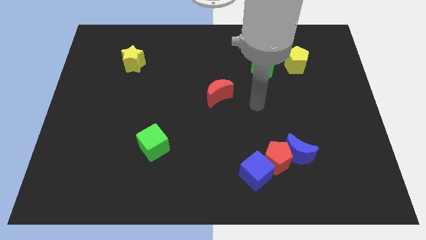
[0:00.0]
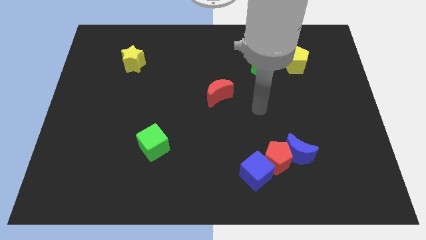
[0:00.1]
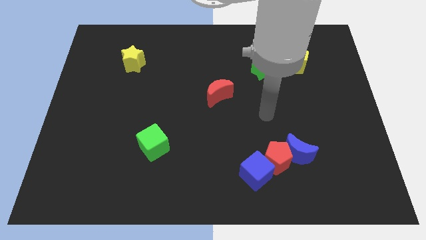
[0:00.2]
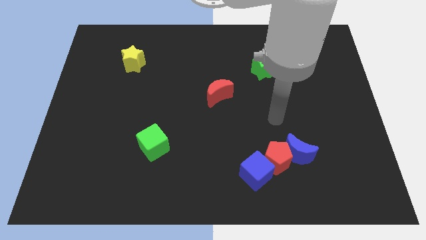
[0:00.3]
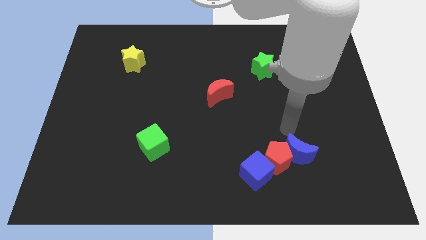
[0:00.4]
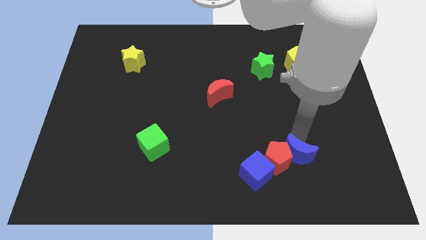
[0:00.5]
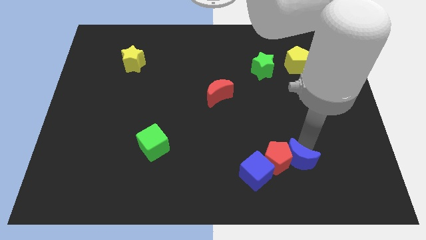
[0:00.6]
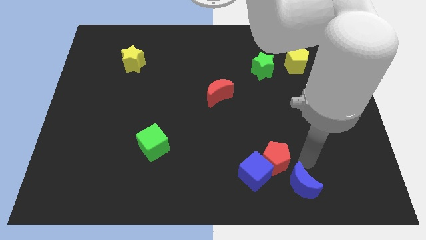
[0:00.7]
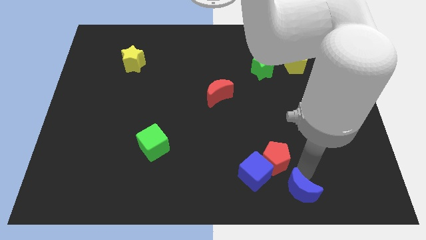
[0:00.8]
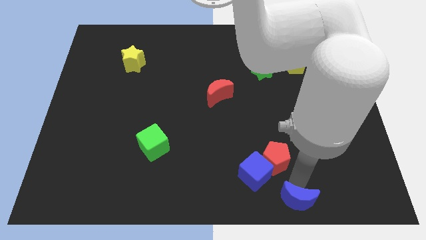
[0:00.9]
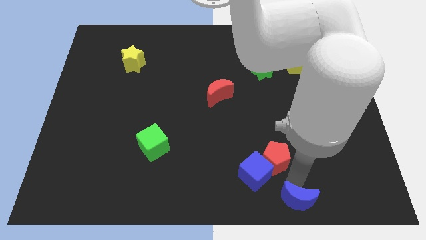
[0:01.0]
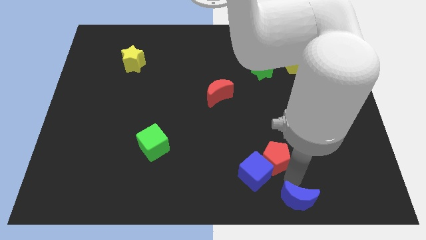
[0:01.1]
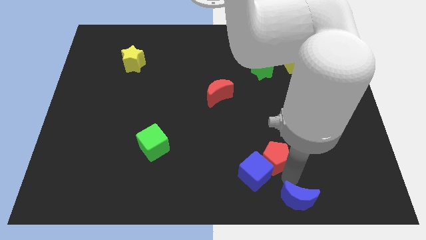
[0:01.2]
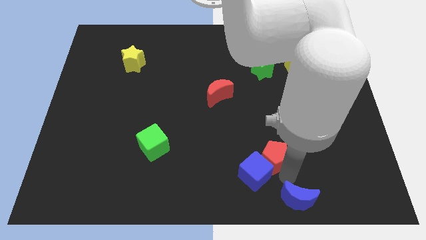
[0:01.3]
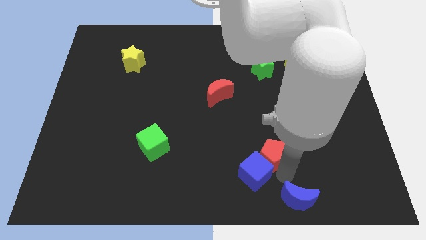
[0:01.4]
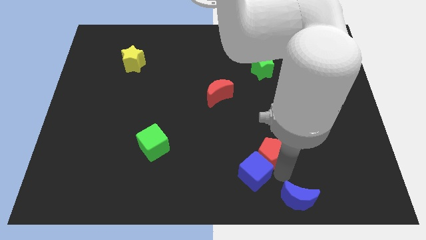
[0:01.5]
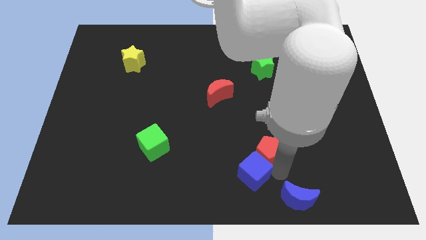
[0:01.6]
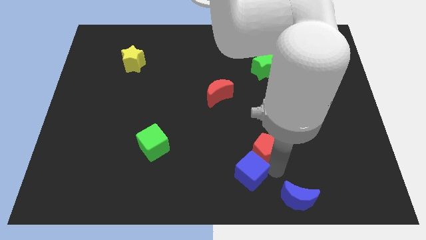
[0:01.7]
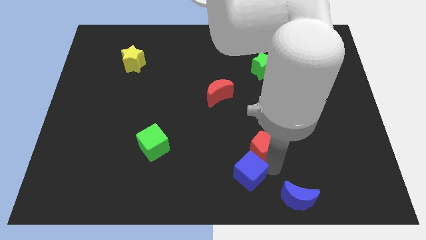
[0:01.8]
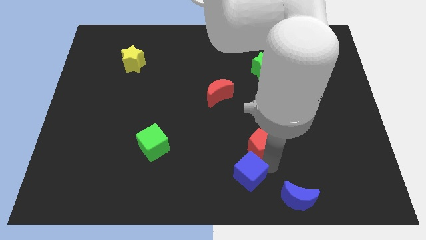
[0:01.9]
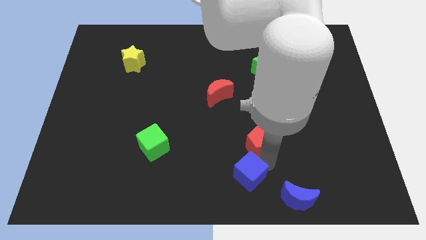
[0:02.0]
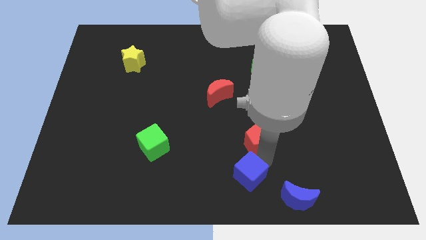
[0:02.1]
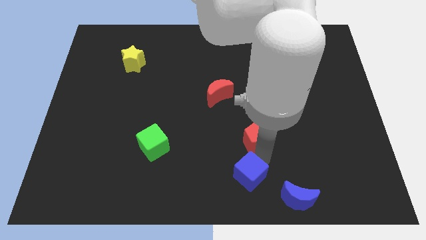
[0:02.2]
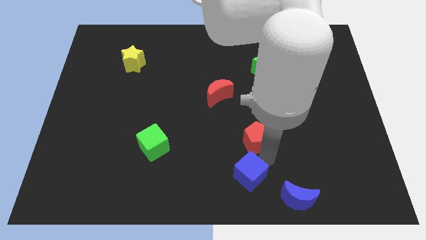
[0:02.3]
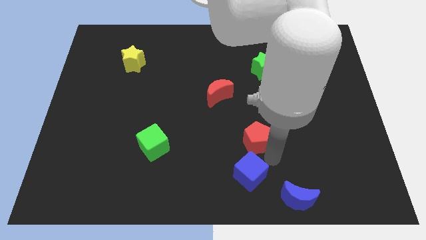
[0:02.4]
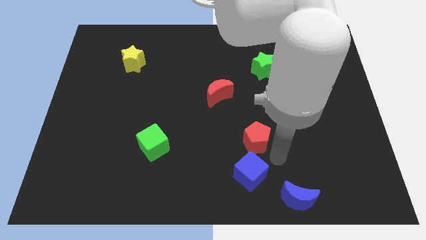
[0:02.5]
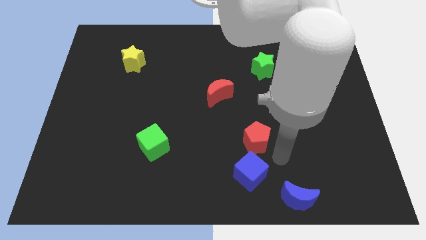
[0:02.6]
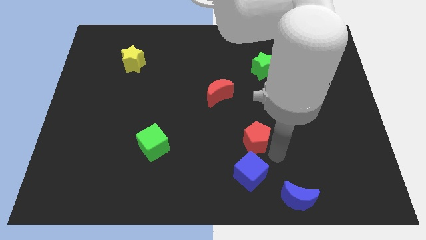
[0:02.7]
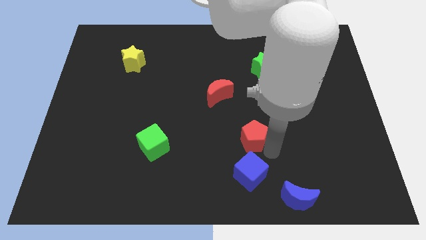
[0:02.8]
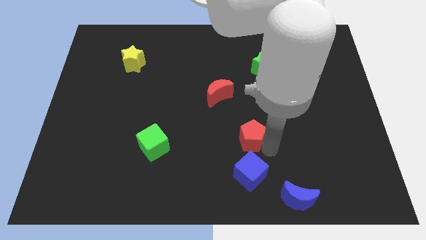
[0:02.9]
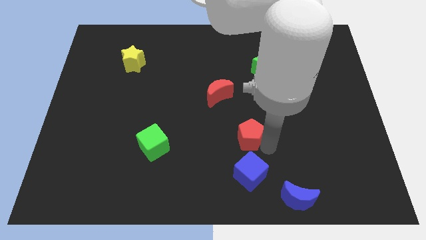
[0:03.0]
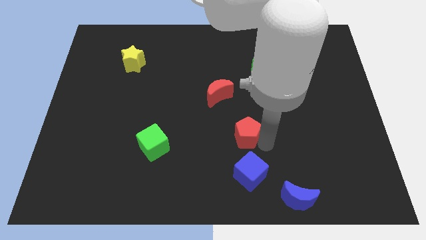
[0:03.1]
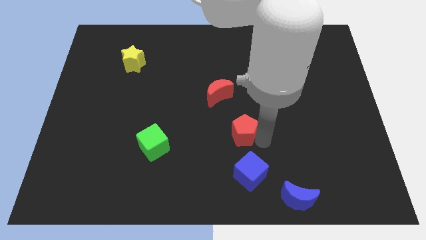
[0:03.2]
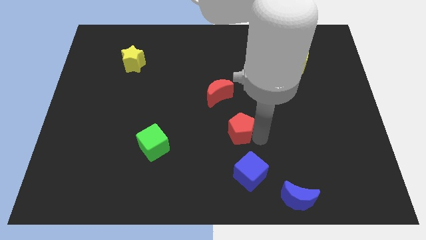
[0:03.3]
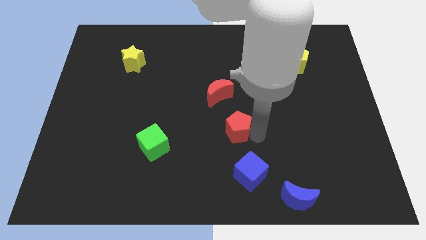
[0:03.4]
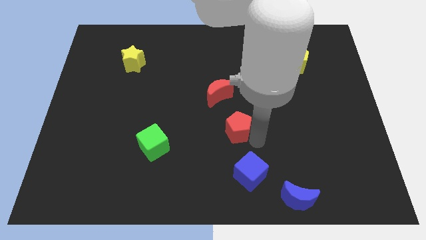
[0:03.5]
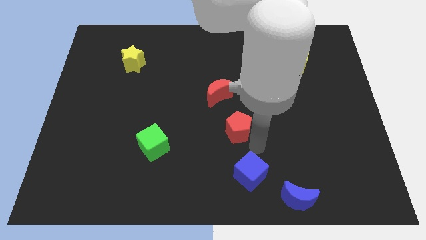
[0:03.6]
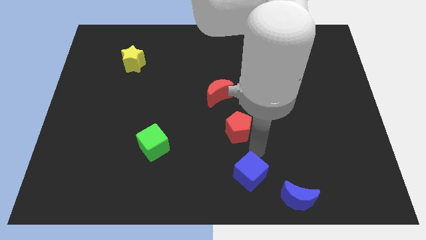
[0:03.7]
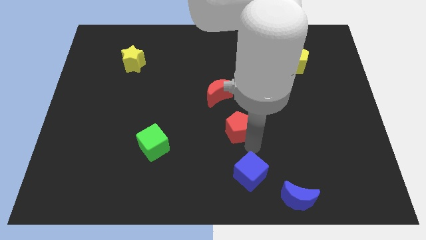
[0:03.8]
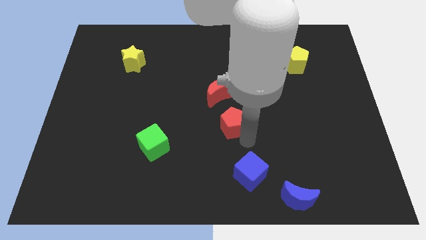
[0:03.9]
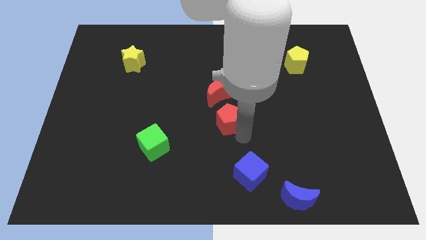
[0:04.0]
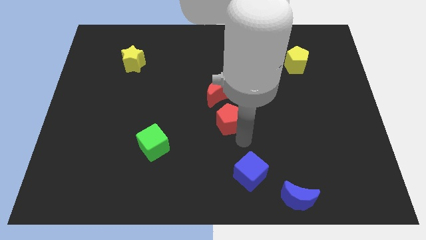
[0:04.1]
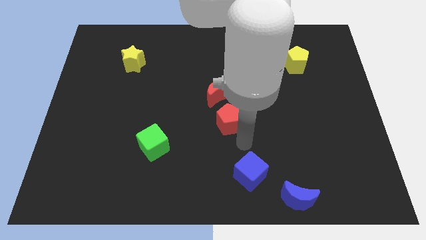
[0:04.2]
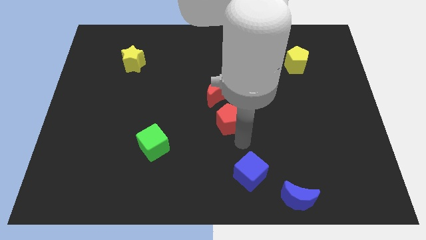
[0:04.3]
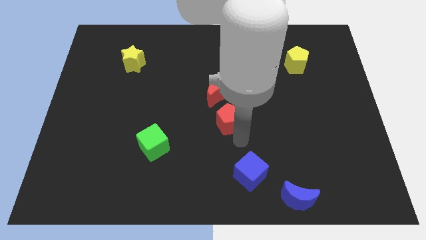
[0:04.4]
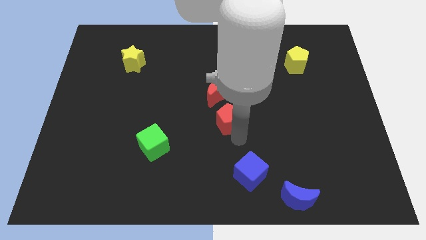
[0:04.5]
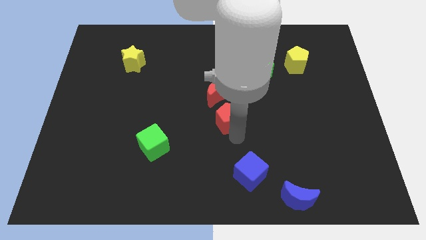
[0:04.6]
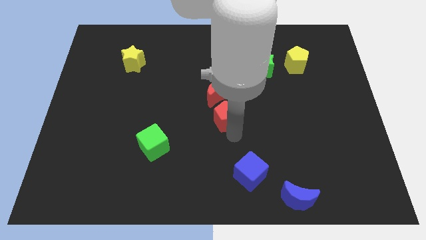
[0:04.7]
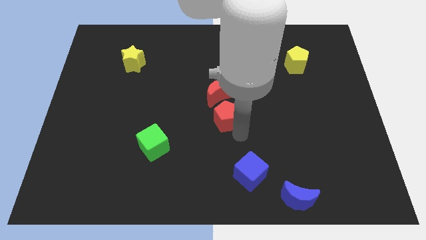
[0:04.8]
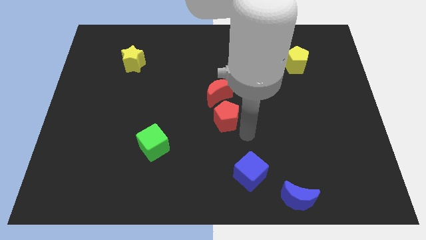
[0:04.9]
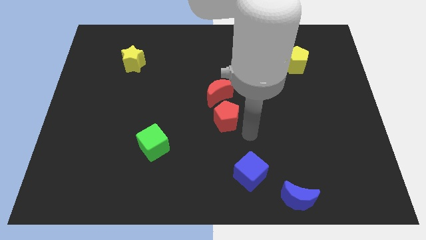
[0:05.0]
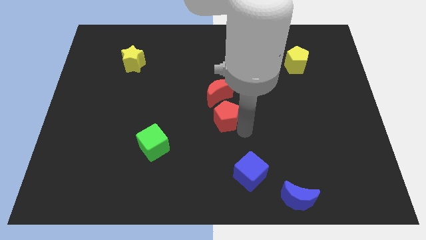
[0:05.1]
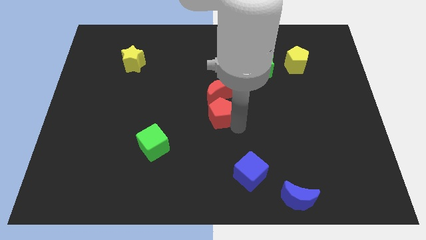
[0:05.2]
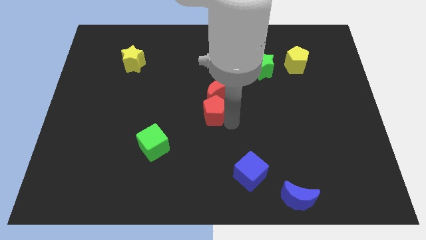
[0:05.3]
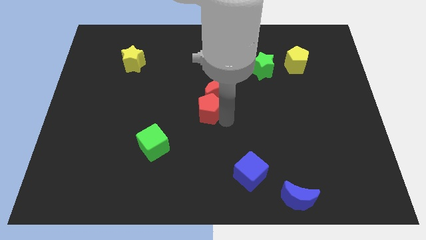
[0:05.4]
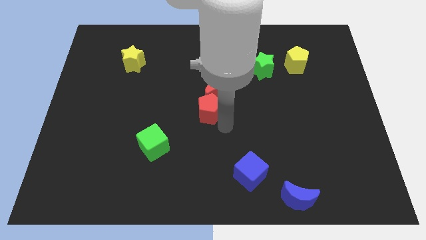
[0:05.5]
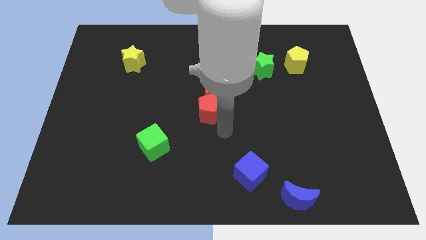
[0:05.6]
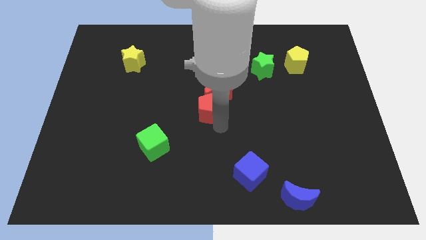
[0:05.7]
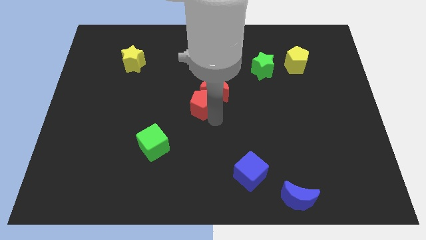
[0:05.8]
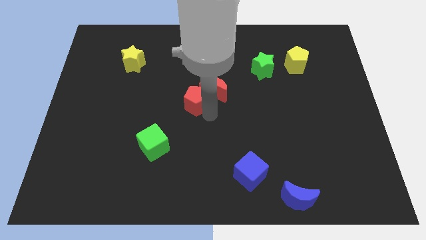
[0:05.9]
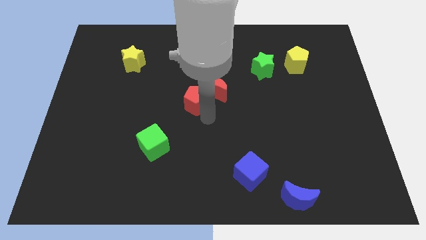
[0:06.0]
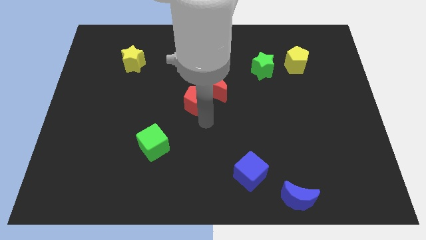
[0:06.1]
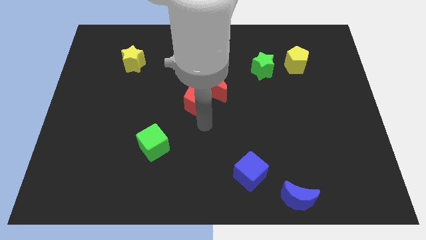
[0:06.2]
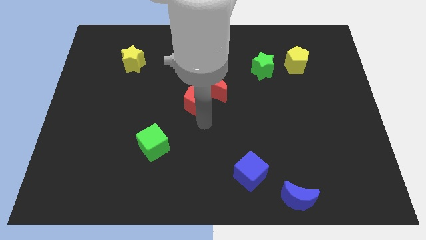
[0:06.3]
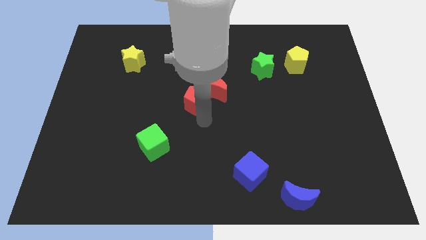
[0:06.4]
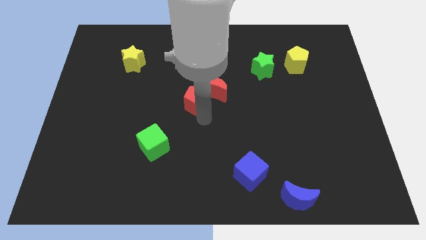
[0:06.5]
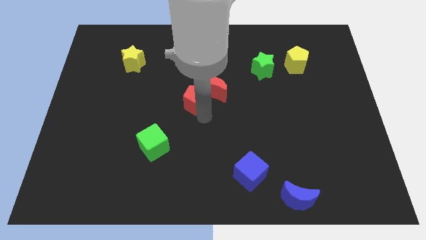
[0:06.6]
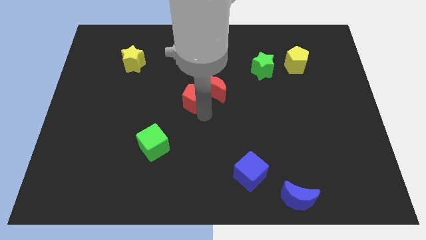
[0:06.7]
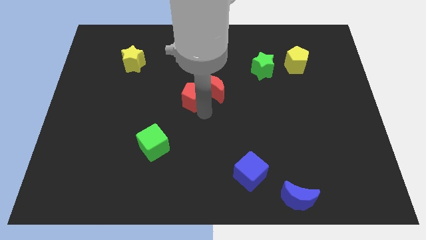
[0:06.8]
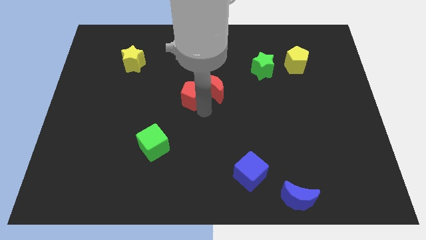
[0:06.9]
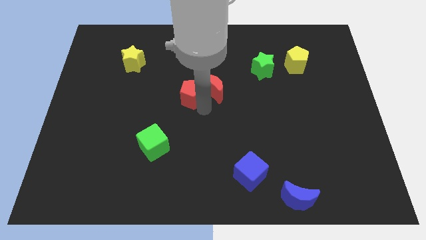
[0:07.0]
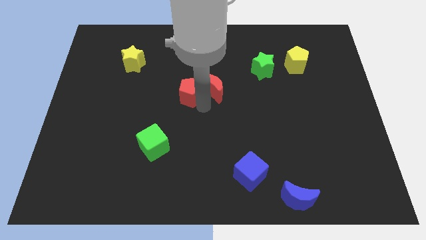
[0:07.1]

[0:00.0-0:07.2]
put the red pentagon diagonally up and to the left of the red moon
